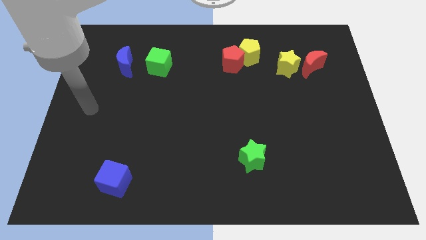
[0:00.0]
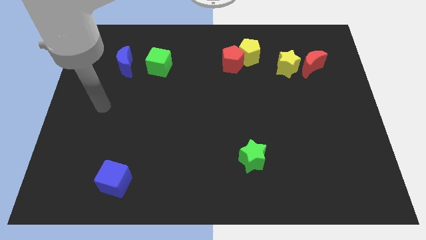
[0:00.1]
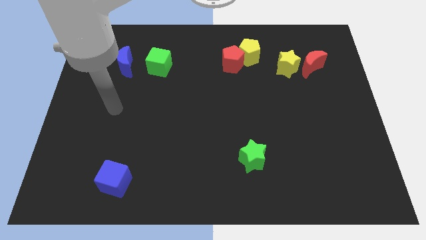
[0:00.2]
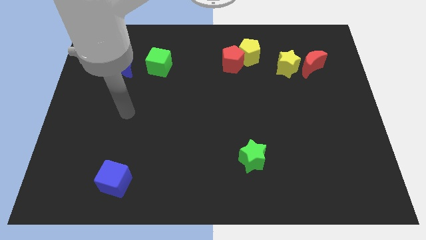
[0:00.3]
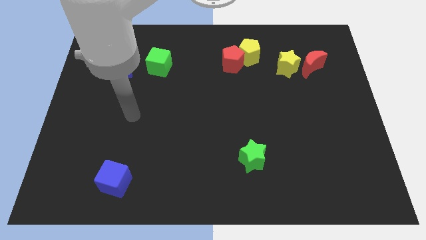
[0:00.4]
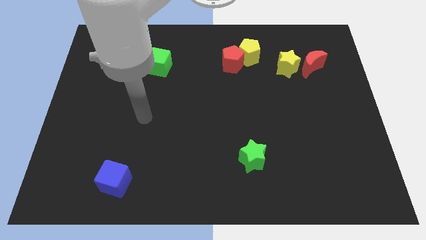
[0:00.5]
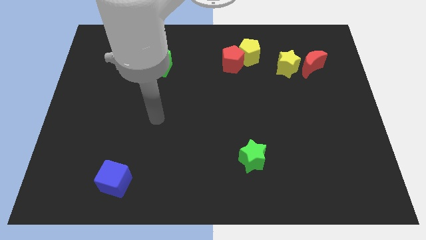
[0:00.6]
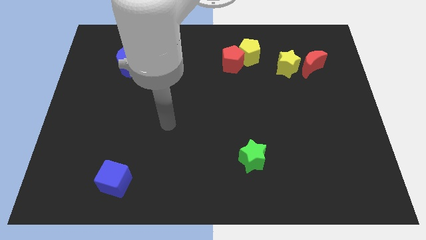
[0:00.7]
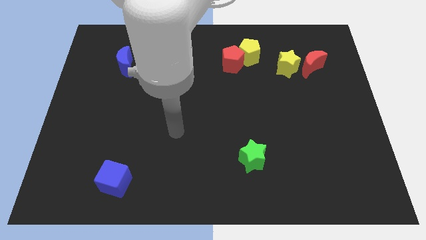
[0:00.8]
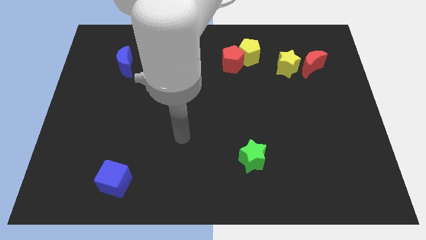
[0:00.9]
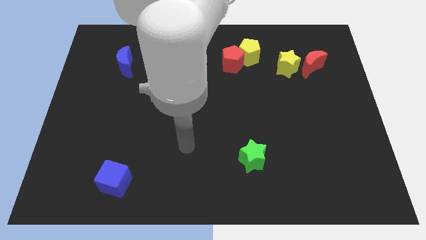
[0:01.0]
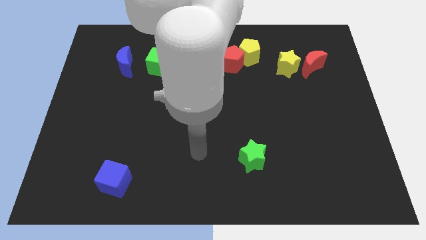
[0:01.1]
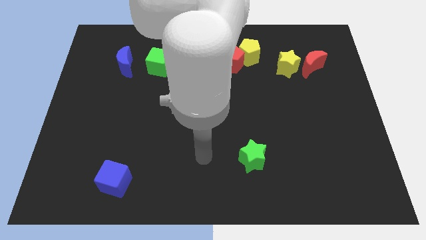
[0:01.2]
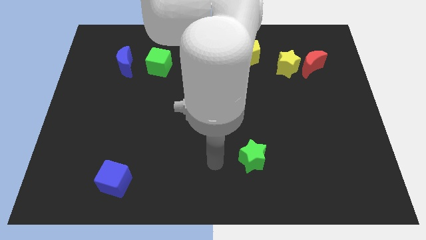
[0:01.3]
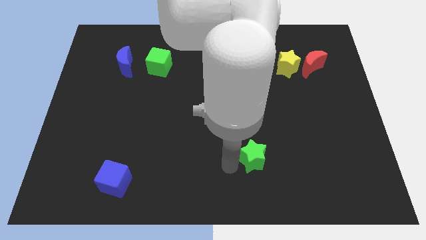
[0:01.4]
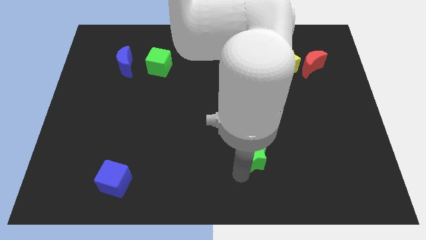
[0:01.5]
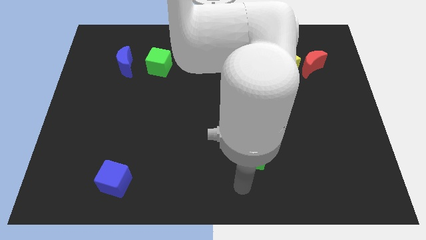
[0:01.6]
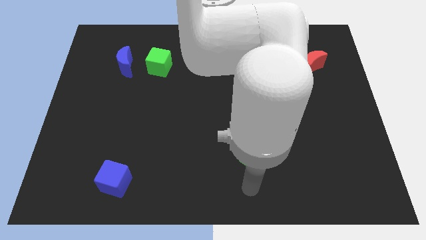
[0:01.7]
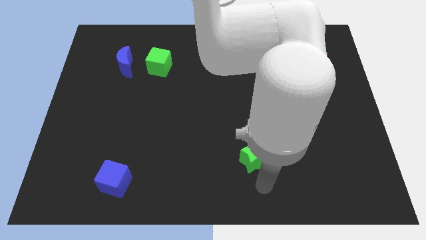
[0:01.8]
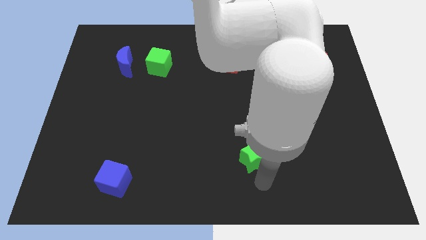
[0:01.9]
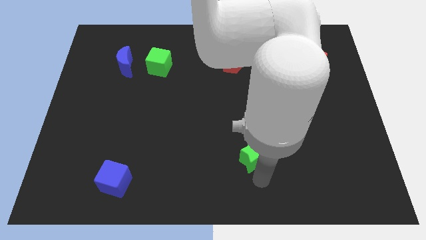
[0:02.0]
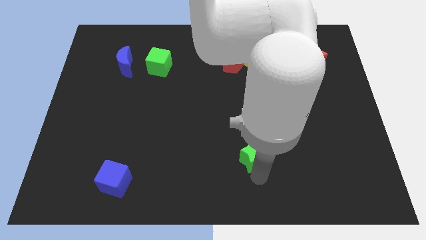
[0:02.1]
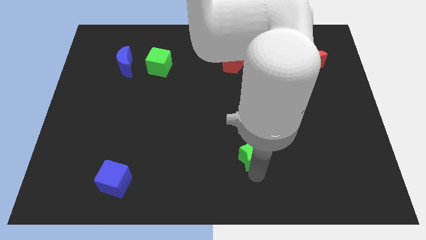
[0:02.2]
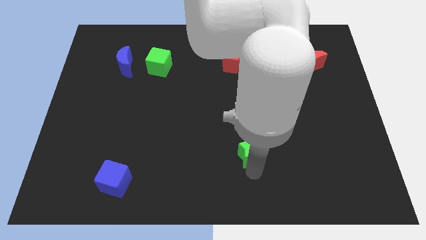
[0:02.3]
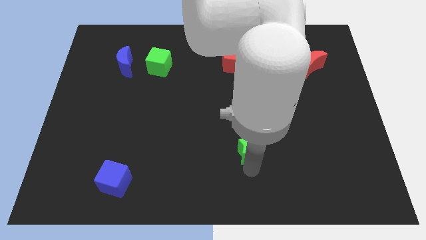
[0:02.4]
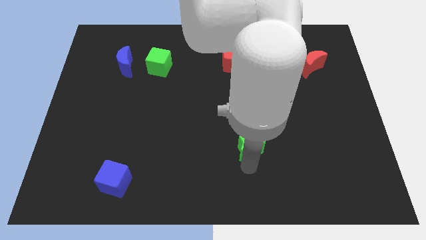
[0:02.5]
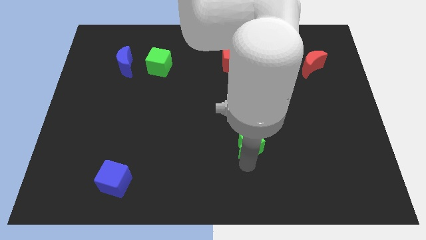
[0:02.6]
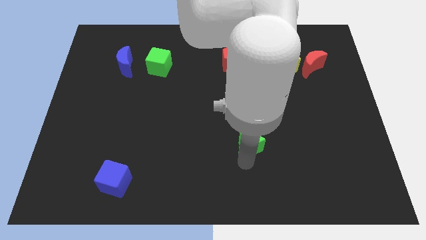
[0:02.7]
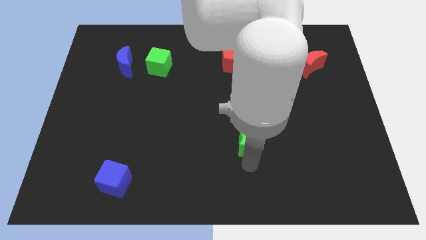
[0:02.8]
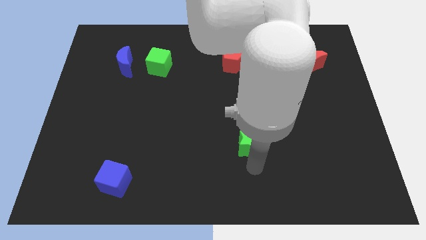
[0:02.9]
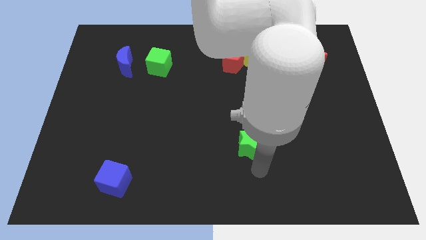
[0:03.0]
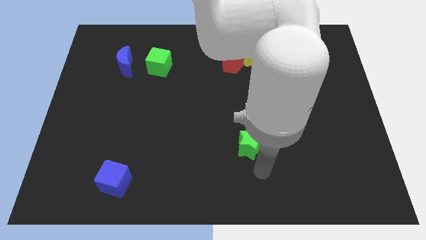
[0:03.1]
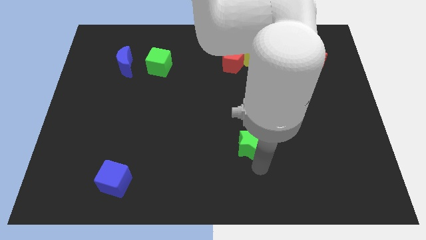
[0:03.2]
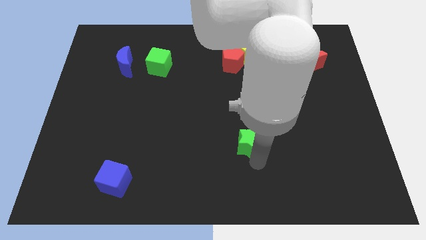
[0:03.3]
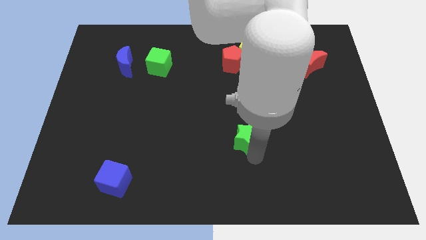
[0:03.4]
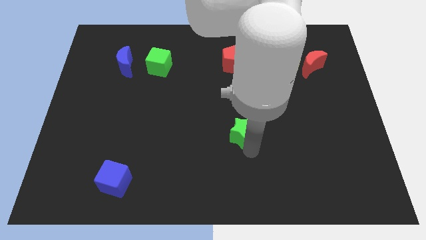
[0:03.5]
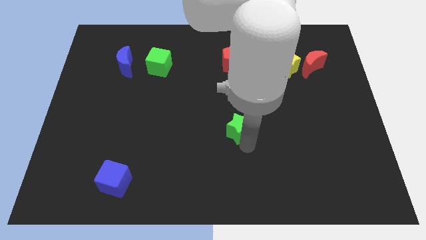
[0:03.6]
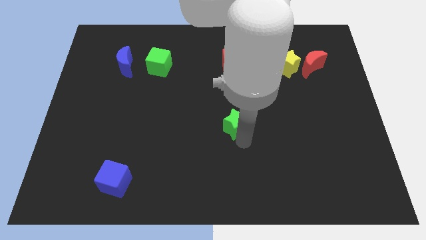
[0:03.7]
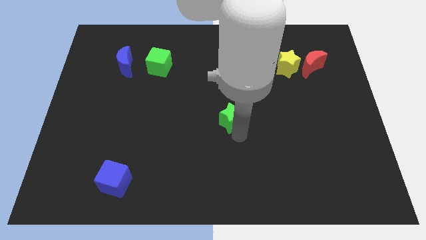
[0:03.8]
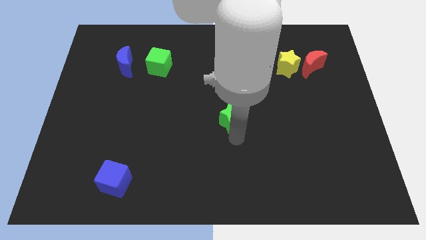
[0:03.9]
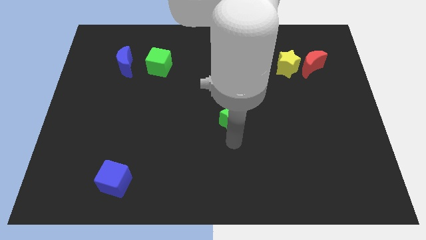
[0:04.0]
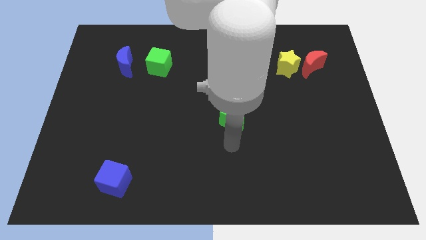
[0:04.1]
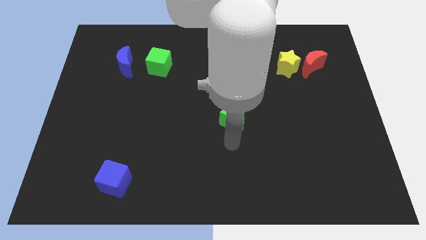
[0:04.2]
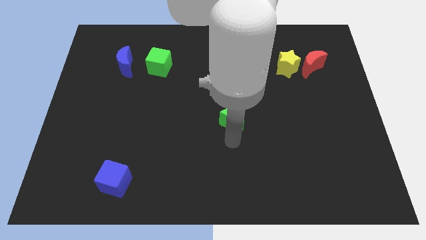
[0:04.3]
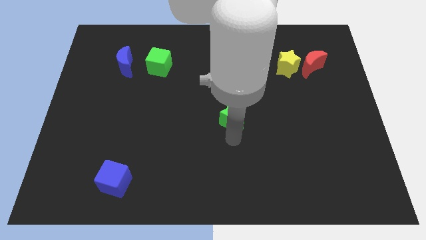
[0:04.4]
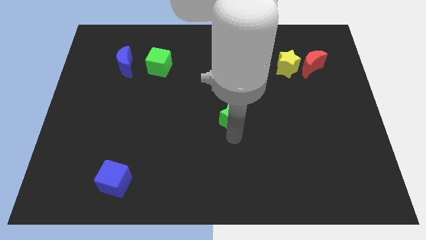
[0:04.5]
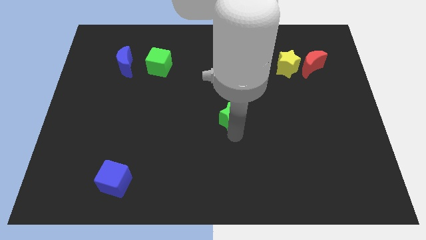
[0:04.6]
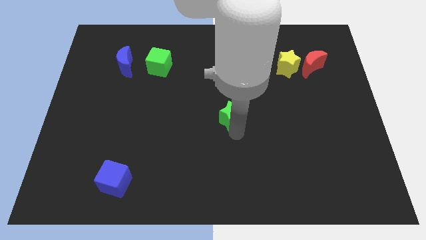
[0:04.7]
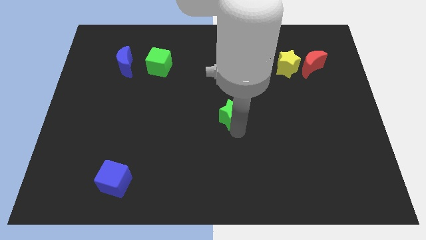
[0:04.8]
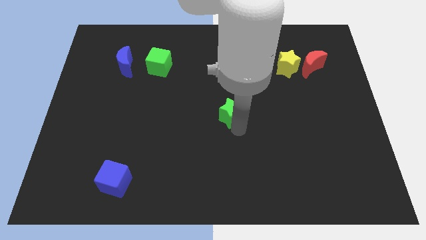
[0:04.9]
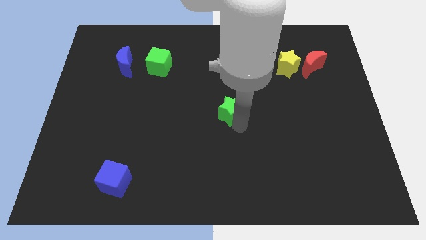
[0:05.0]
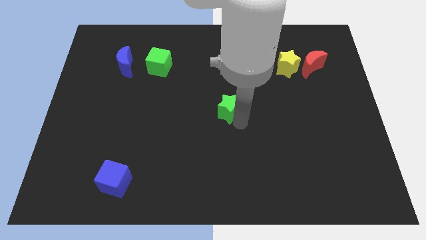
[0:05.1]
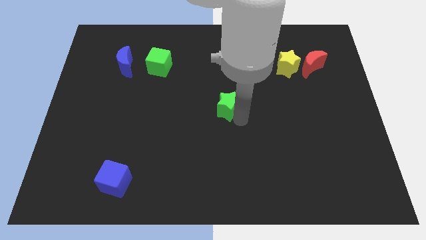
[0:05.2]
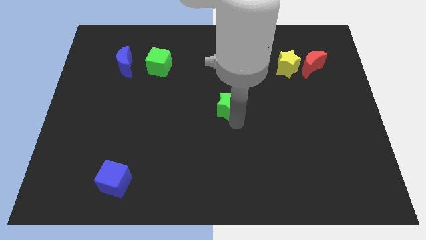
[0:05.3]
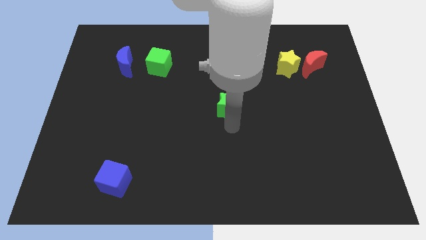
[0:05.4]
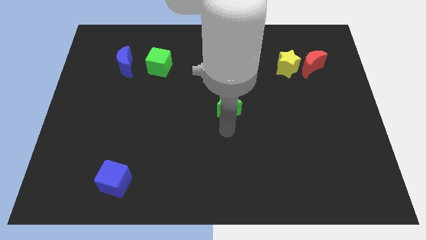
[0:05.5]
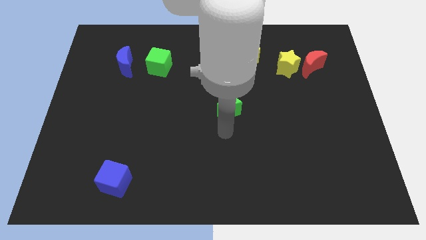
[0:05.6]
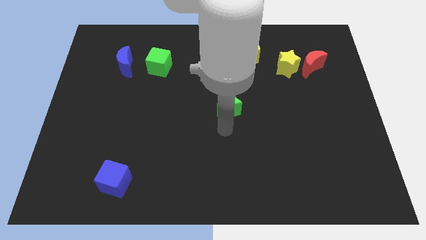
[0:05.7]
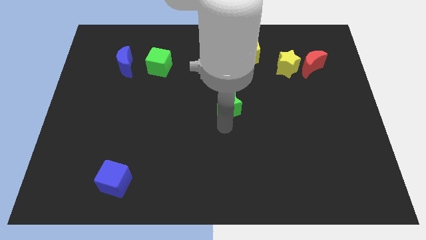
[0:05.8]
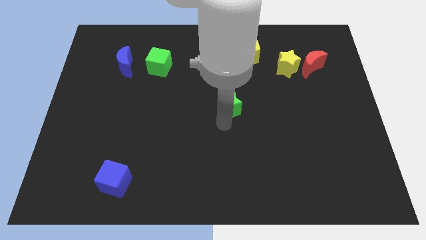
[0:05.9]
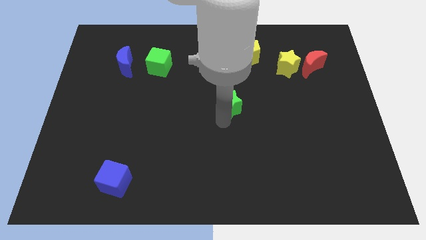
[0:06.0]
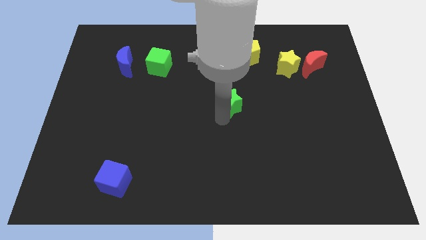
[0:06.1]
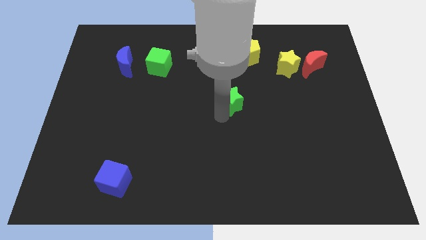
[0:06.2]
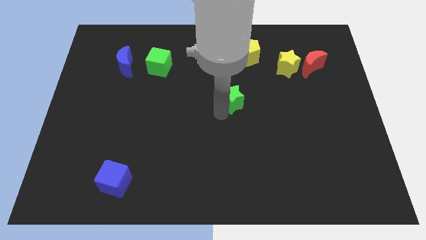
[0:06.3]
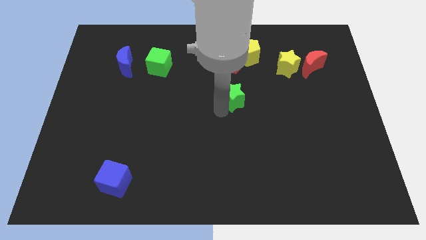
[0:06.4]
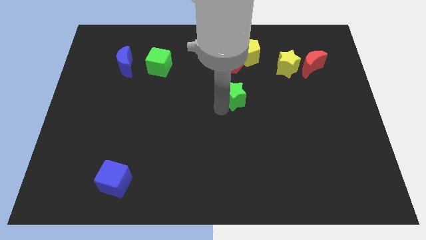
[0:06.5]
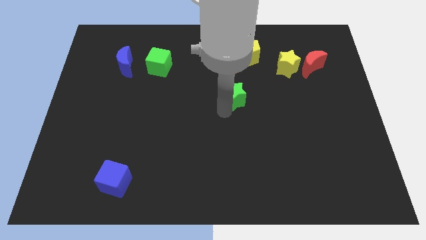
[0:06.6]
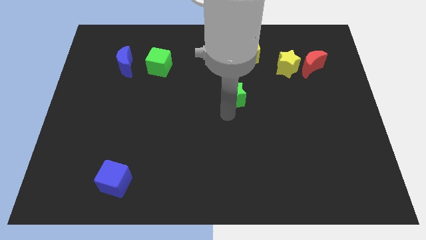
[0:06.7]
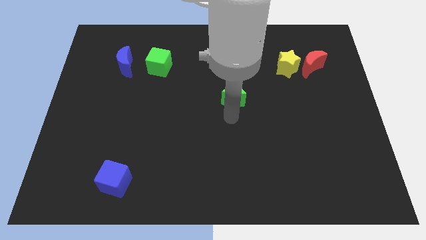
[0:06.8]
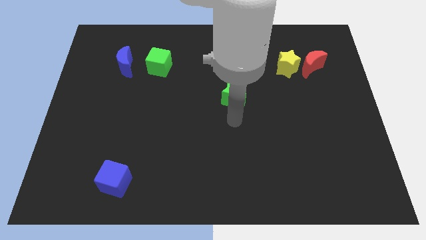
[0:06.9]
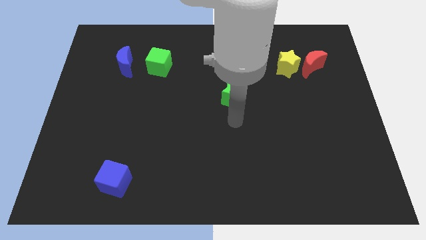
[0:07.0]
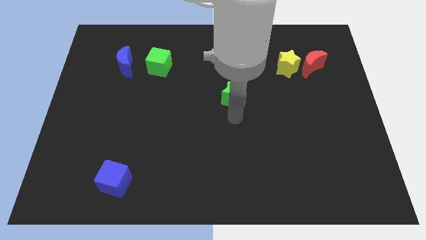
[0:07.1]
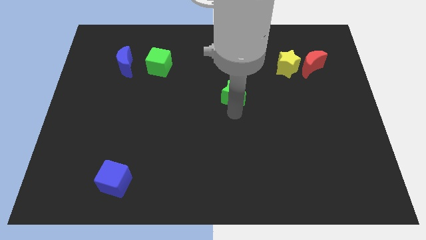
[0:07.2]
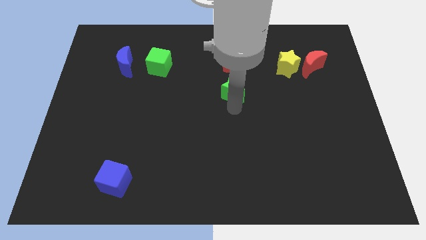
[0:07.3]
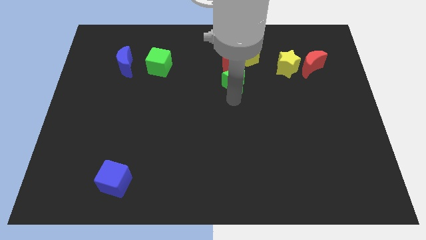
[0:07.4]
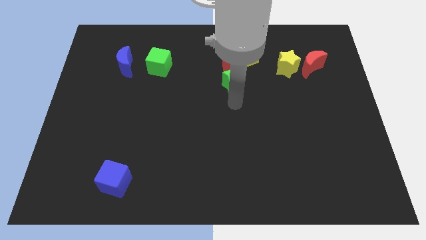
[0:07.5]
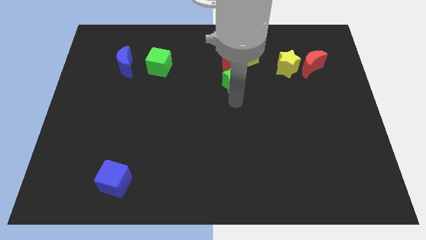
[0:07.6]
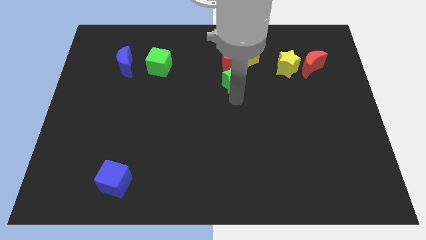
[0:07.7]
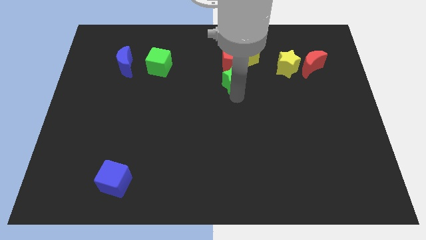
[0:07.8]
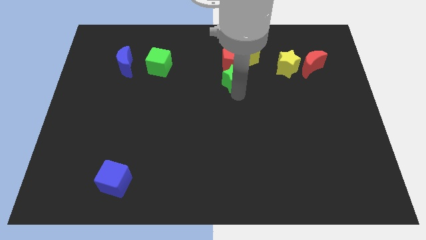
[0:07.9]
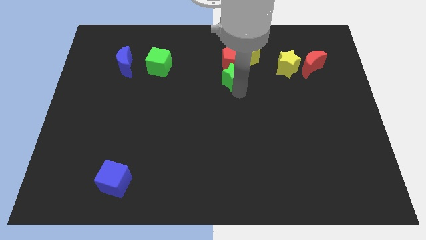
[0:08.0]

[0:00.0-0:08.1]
put the green star towards the red pentagon

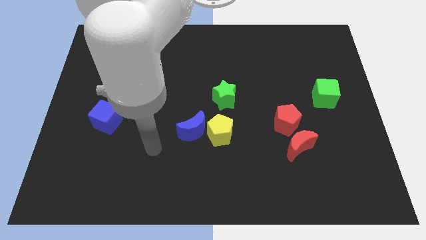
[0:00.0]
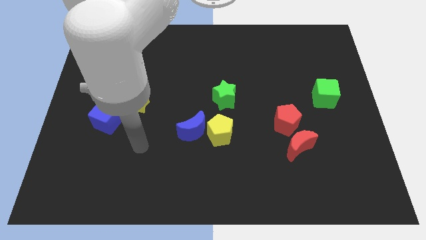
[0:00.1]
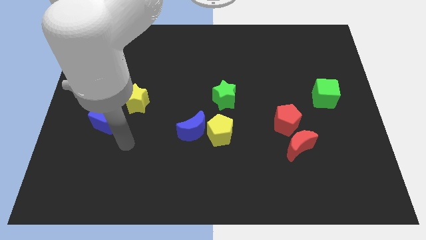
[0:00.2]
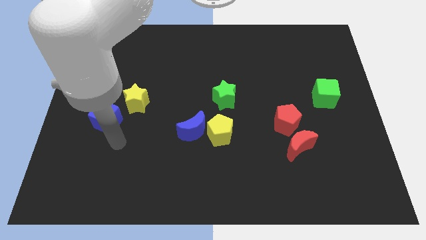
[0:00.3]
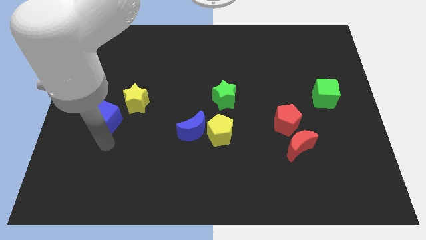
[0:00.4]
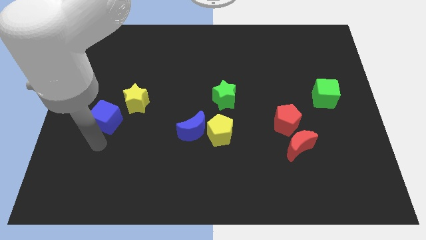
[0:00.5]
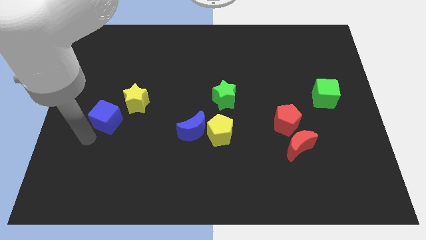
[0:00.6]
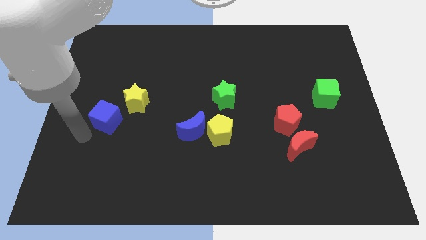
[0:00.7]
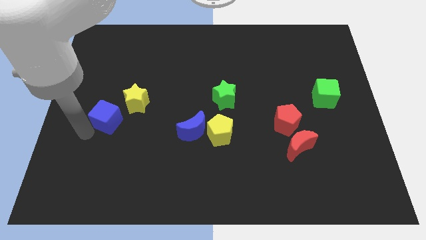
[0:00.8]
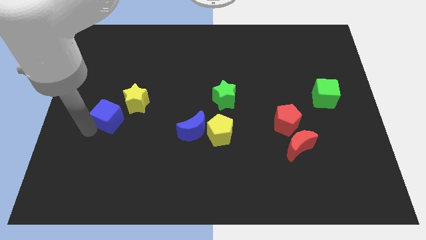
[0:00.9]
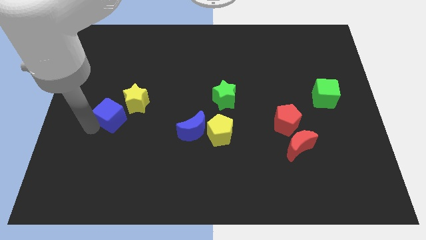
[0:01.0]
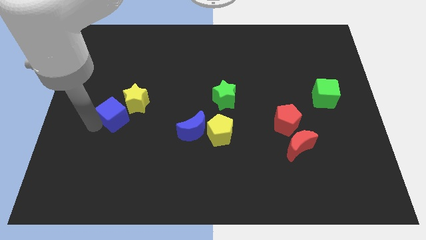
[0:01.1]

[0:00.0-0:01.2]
slide the blue cube towards the yellow star
